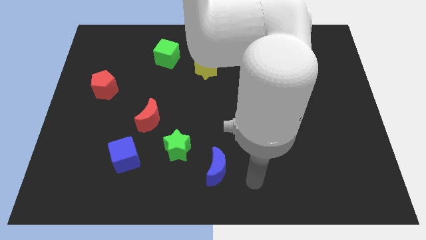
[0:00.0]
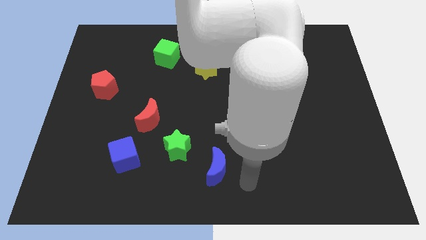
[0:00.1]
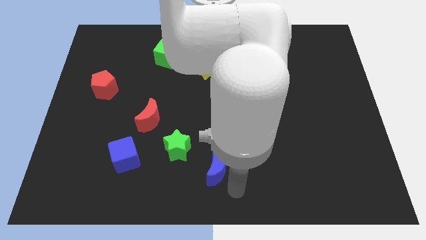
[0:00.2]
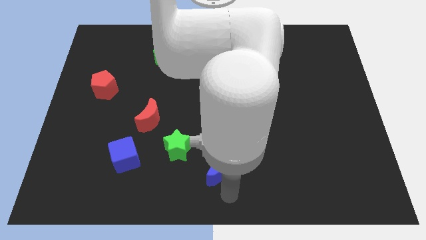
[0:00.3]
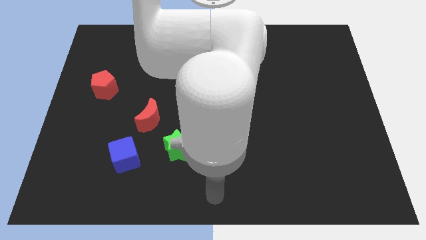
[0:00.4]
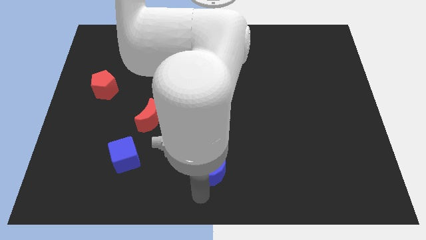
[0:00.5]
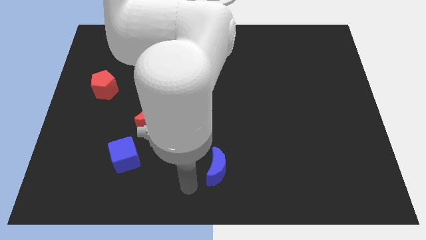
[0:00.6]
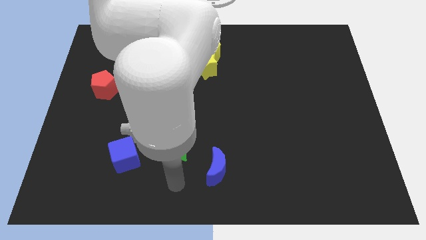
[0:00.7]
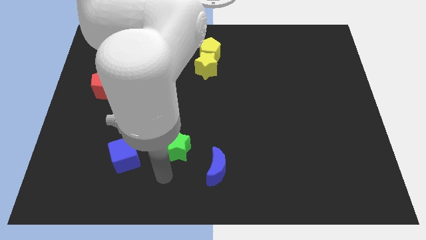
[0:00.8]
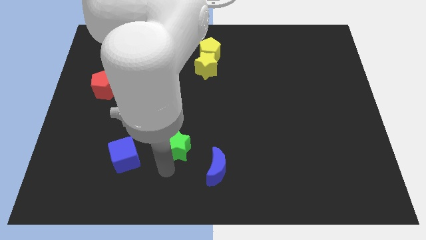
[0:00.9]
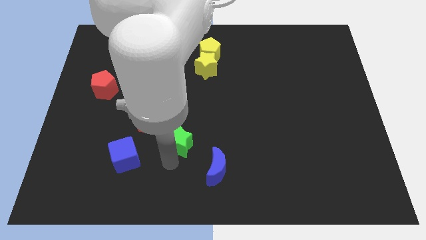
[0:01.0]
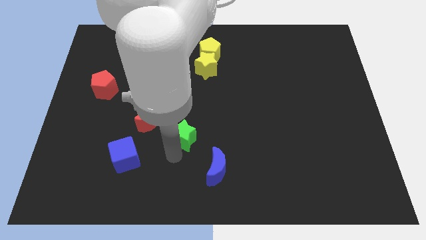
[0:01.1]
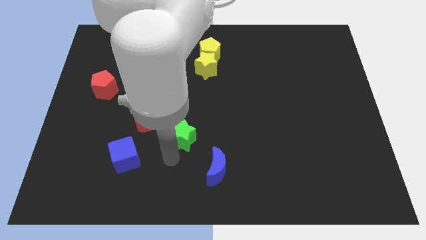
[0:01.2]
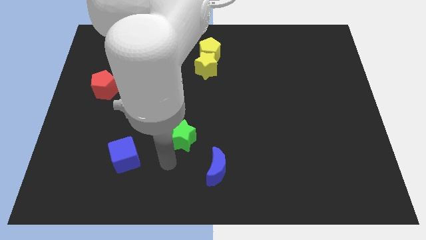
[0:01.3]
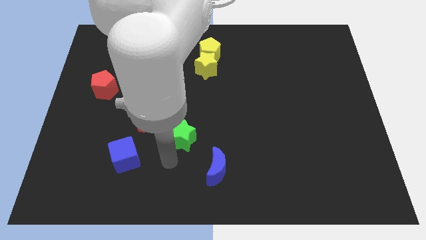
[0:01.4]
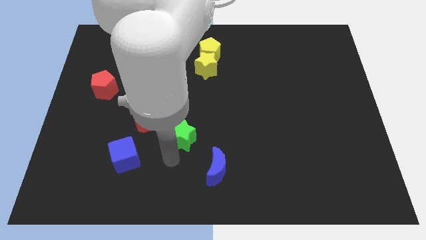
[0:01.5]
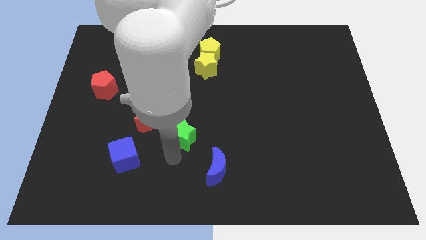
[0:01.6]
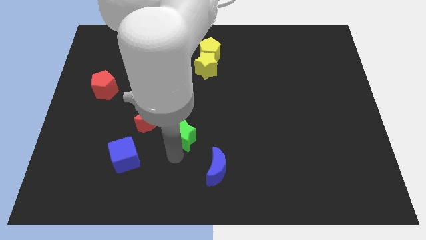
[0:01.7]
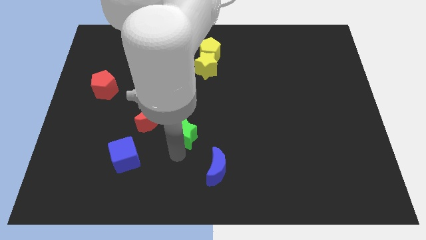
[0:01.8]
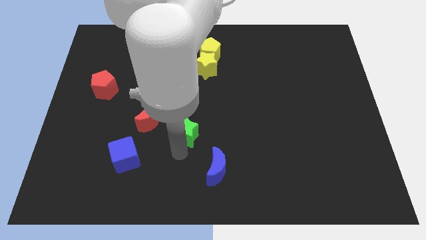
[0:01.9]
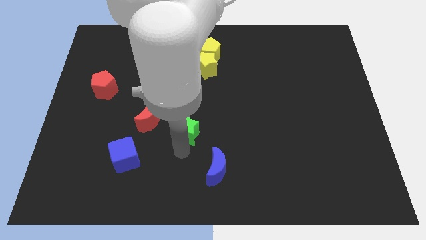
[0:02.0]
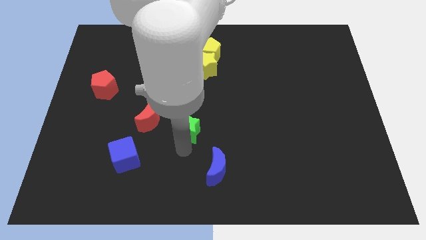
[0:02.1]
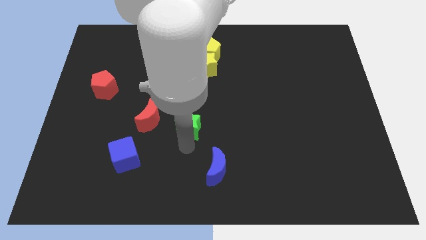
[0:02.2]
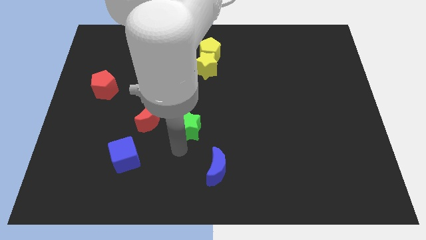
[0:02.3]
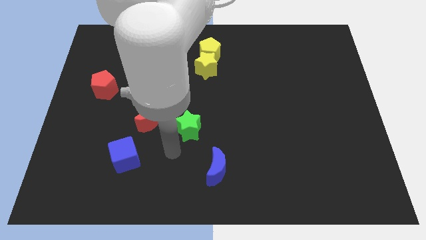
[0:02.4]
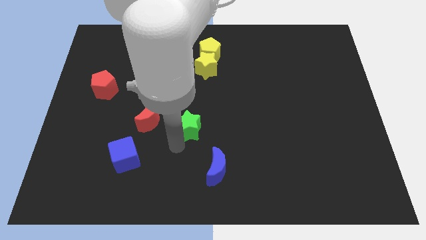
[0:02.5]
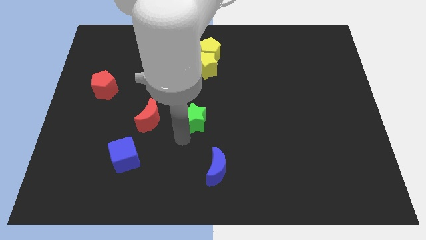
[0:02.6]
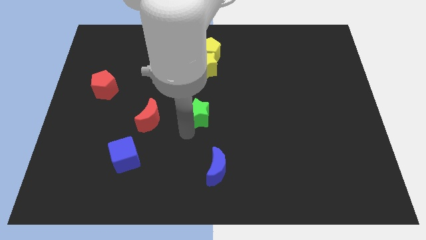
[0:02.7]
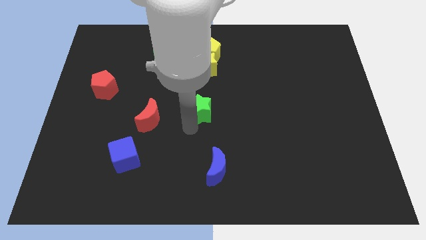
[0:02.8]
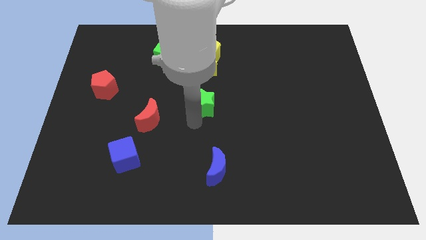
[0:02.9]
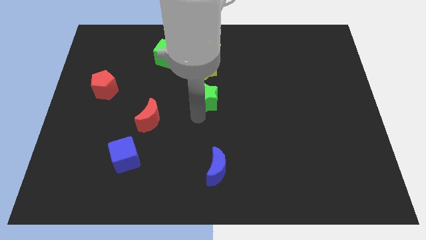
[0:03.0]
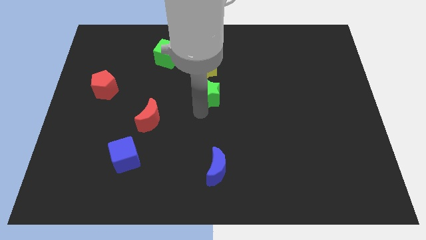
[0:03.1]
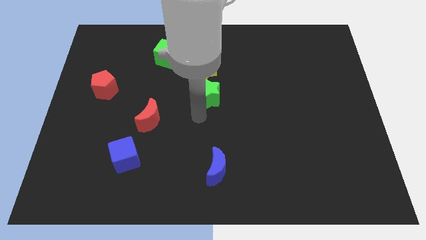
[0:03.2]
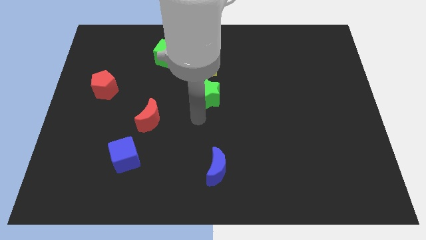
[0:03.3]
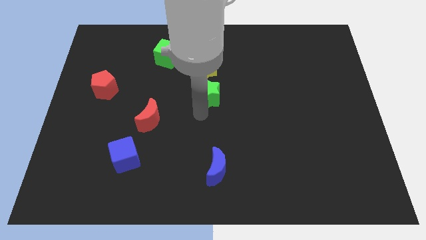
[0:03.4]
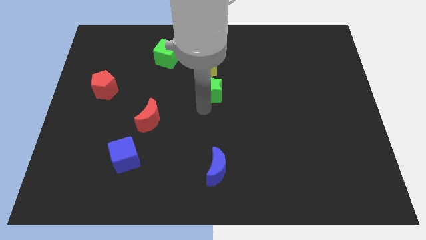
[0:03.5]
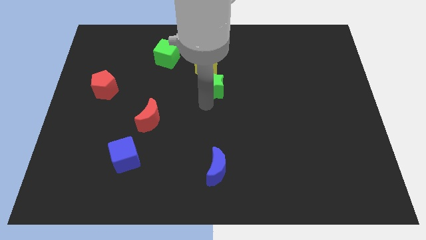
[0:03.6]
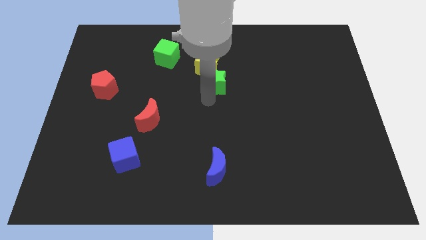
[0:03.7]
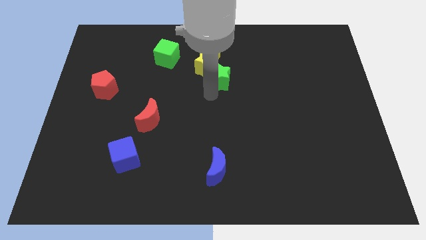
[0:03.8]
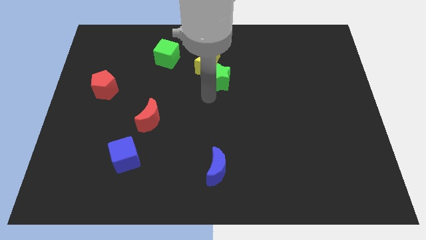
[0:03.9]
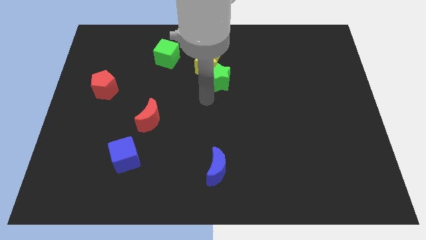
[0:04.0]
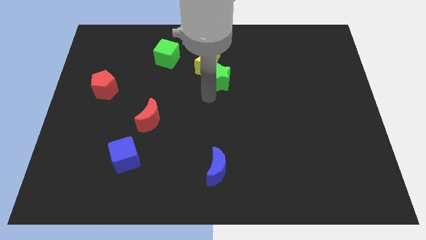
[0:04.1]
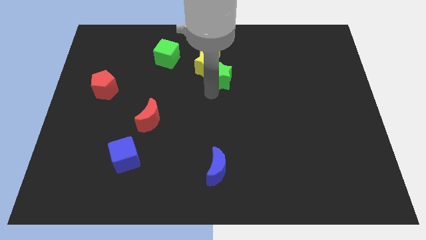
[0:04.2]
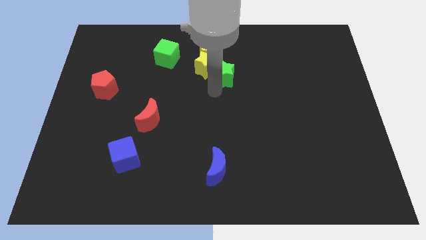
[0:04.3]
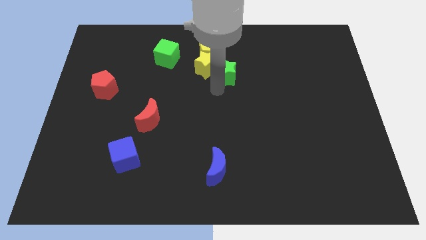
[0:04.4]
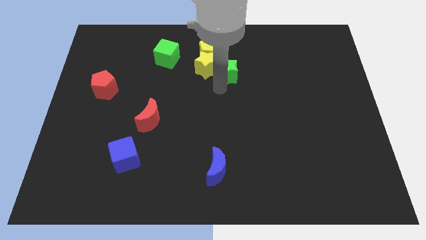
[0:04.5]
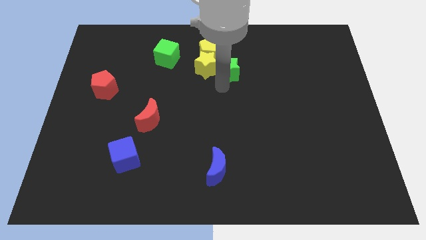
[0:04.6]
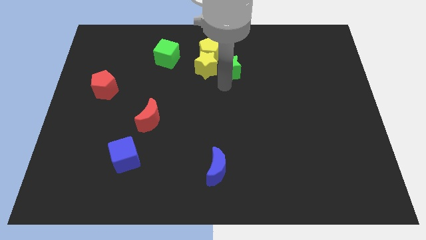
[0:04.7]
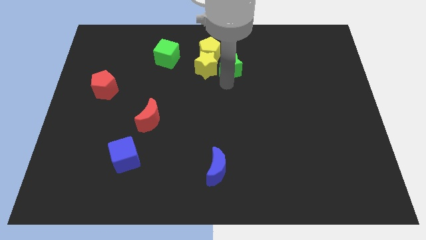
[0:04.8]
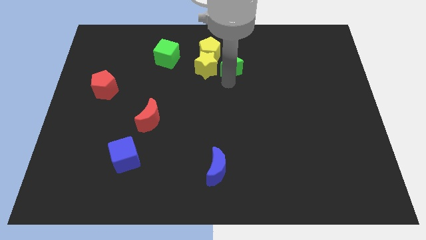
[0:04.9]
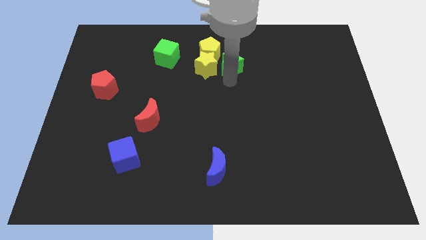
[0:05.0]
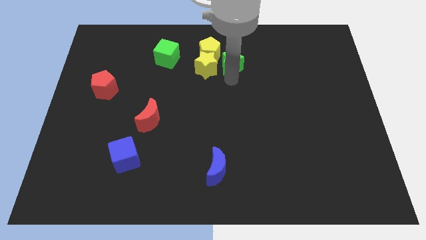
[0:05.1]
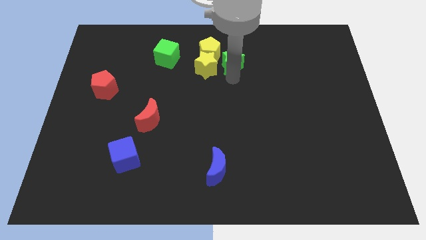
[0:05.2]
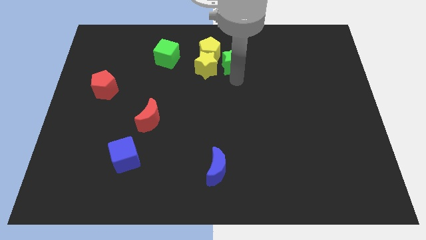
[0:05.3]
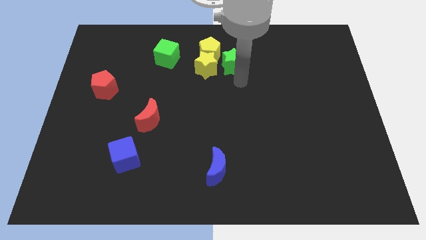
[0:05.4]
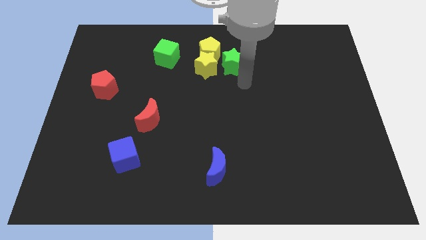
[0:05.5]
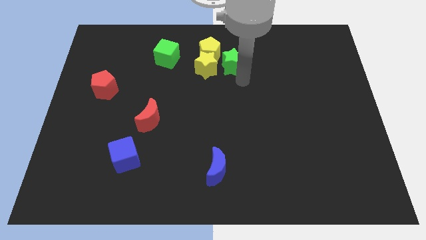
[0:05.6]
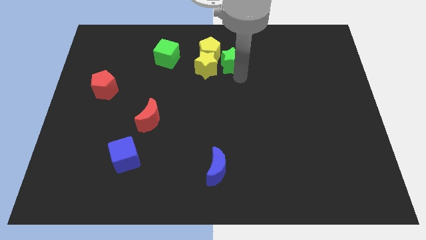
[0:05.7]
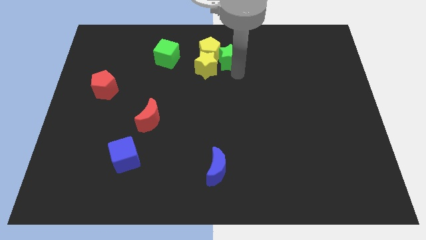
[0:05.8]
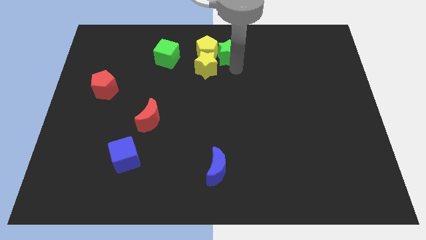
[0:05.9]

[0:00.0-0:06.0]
put the green star to the right of the green cube
